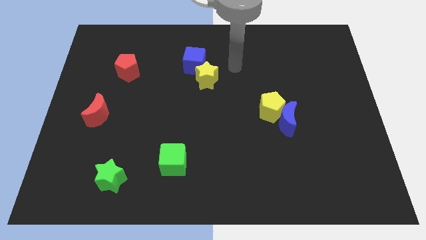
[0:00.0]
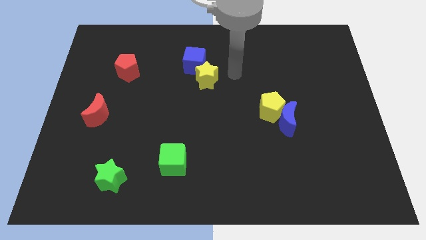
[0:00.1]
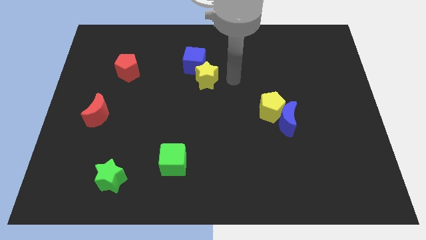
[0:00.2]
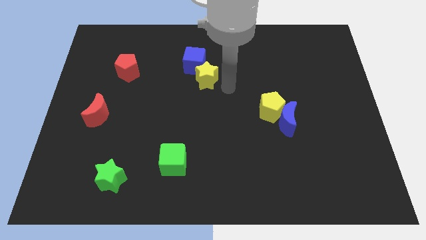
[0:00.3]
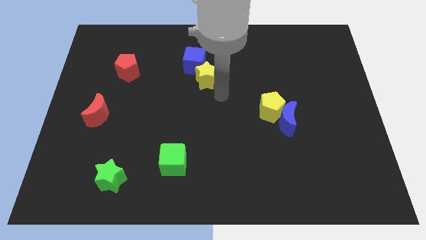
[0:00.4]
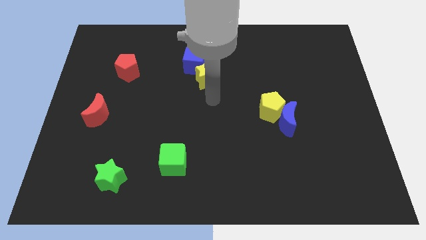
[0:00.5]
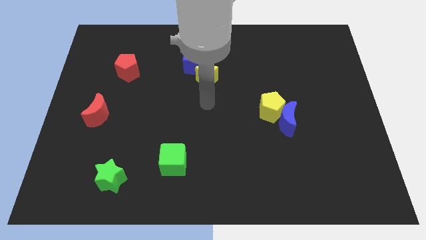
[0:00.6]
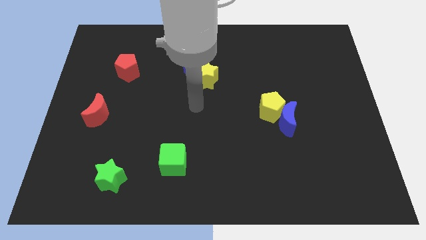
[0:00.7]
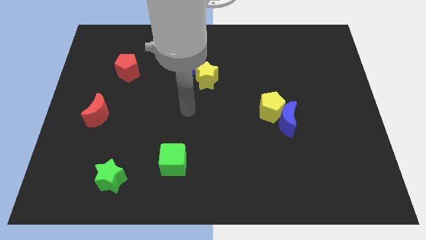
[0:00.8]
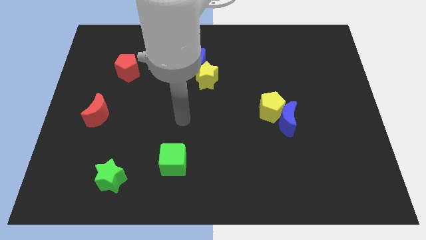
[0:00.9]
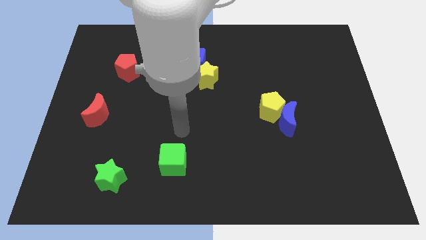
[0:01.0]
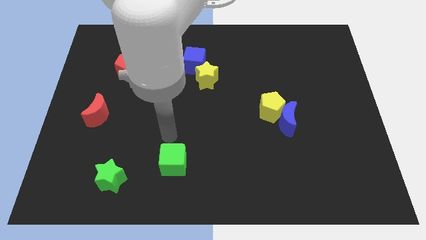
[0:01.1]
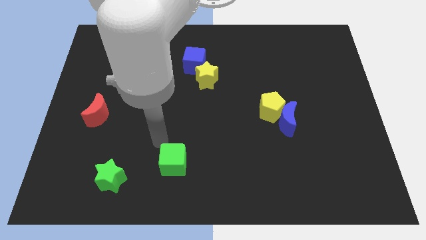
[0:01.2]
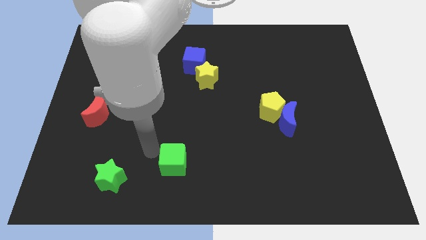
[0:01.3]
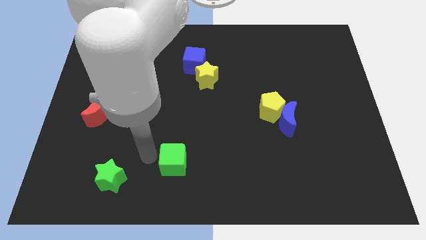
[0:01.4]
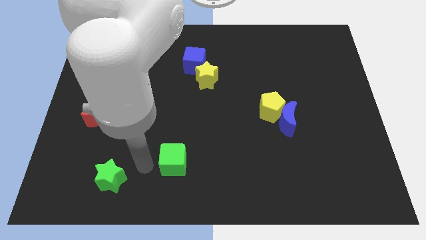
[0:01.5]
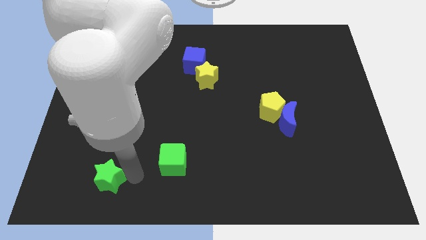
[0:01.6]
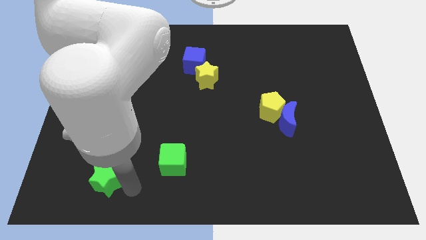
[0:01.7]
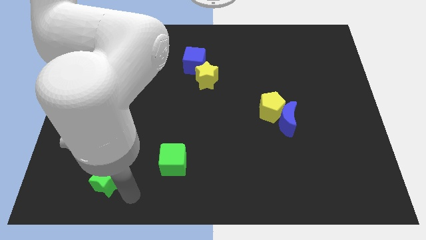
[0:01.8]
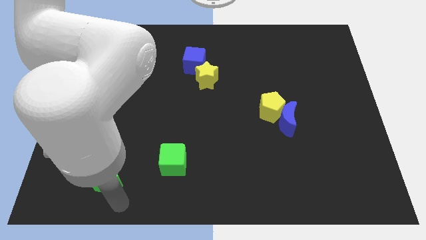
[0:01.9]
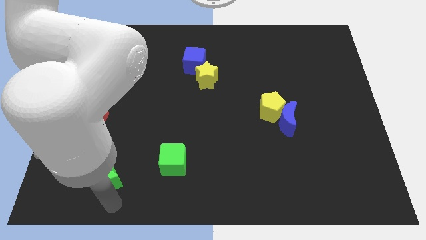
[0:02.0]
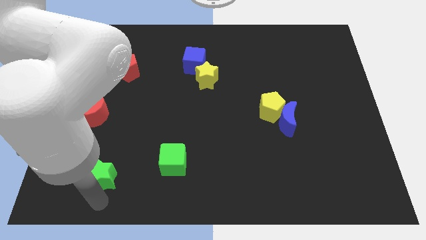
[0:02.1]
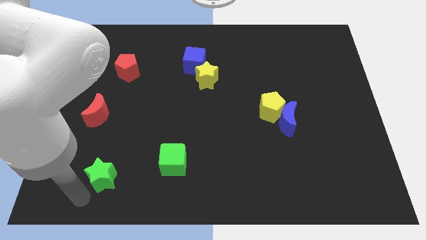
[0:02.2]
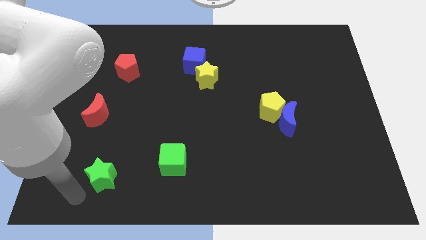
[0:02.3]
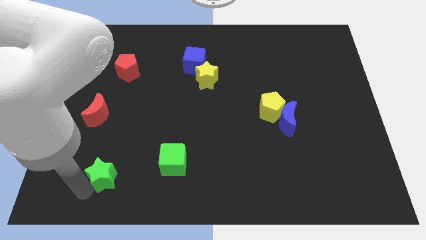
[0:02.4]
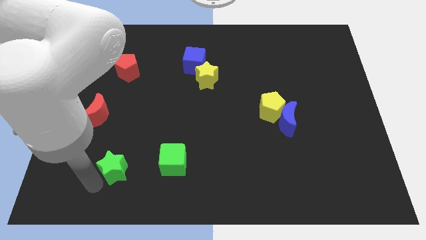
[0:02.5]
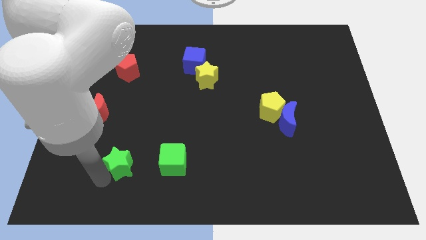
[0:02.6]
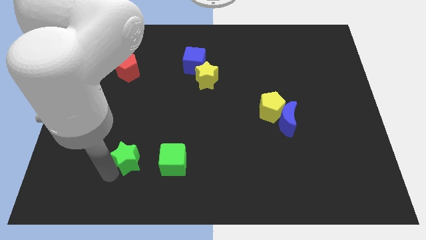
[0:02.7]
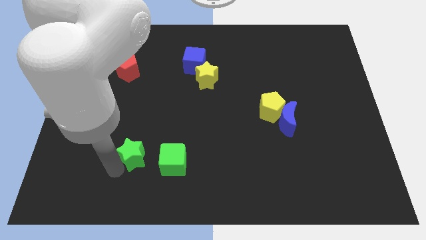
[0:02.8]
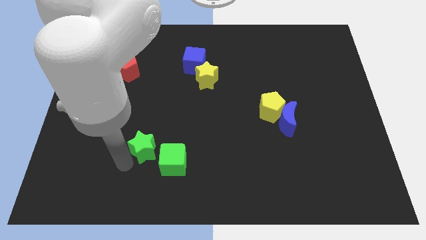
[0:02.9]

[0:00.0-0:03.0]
push the green star up and then right slightly

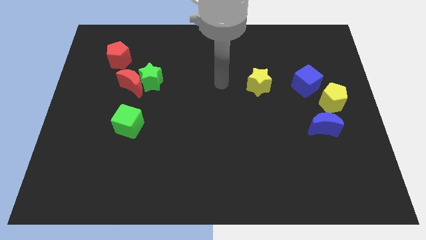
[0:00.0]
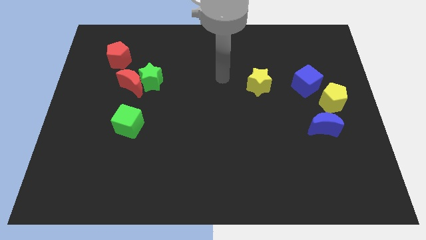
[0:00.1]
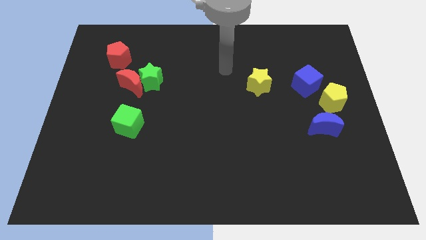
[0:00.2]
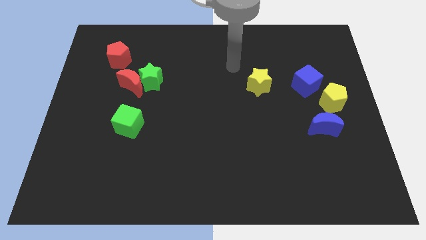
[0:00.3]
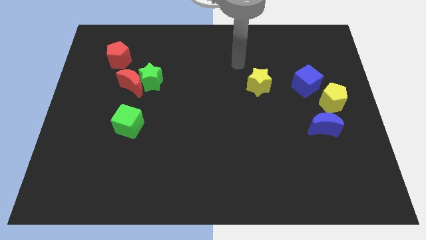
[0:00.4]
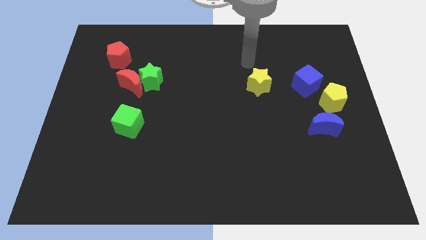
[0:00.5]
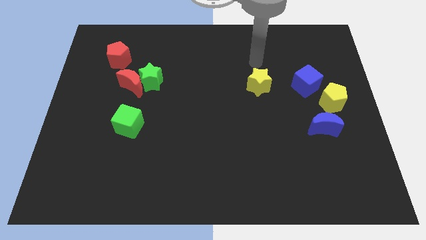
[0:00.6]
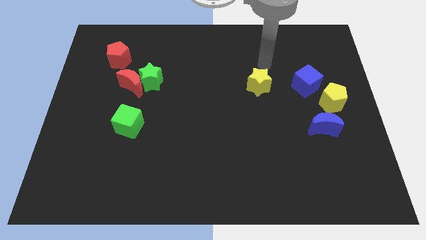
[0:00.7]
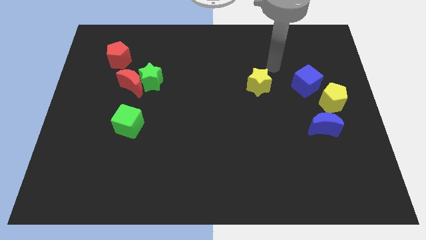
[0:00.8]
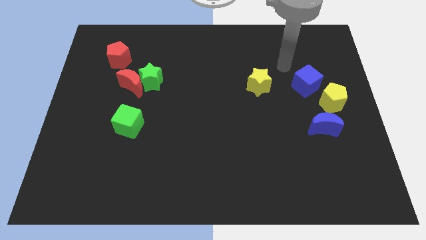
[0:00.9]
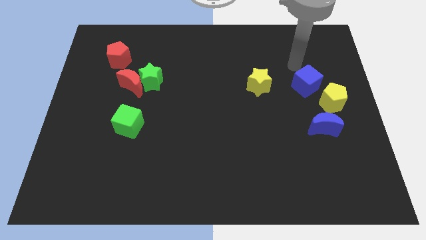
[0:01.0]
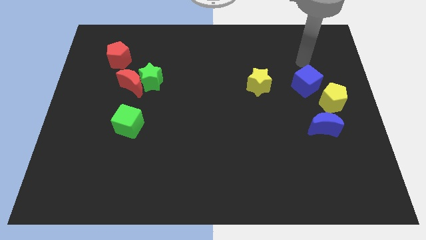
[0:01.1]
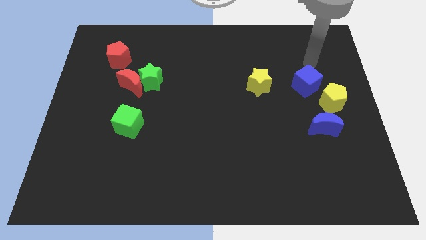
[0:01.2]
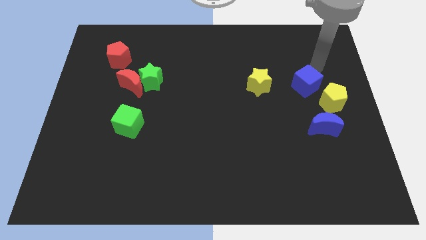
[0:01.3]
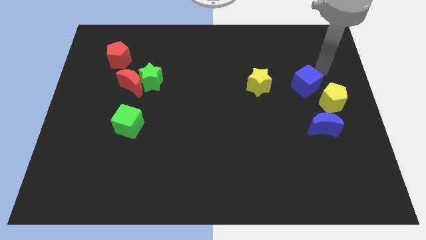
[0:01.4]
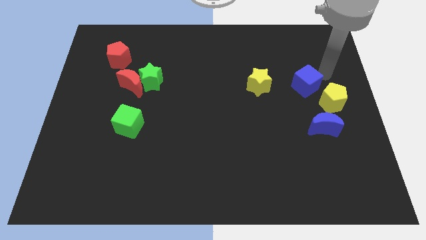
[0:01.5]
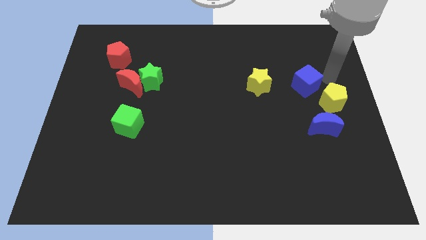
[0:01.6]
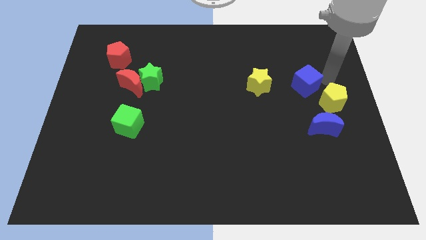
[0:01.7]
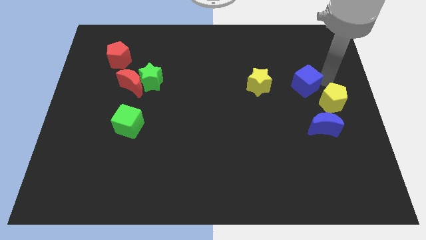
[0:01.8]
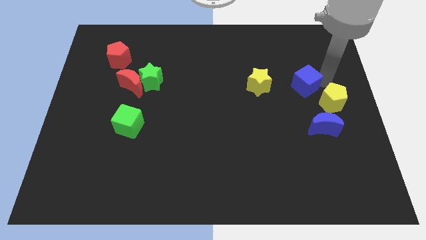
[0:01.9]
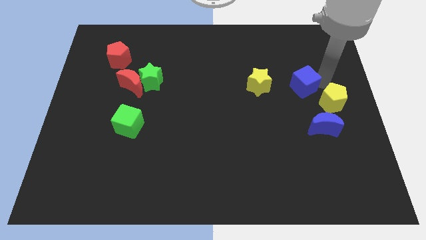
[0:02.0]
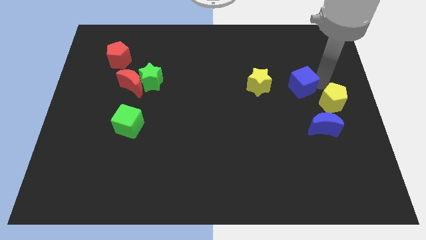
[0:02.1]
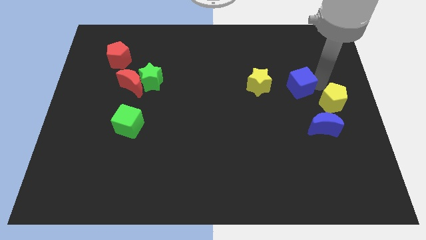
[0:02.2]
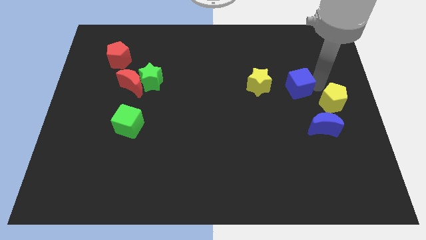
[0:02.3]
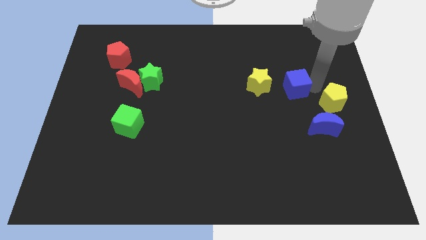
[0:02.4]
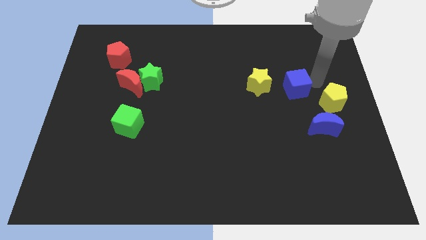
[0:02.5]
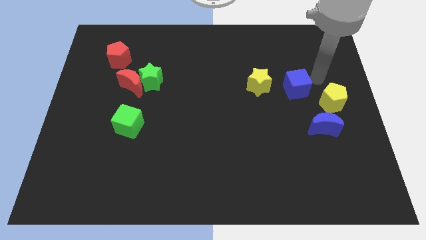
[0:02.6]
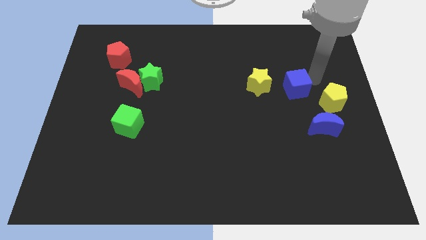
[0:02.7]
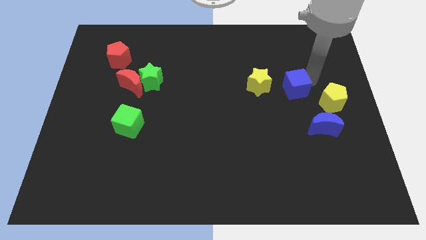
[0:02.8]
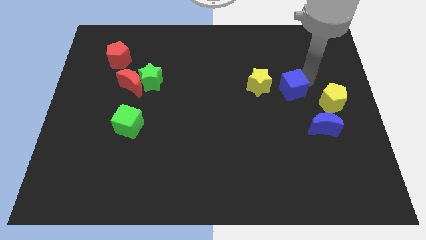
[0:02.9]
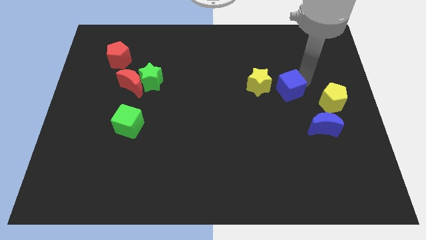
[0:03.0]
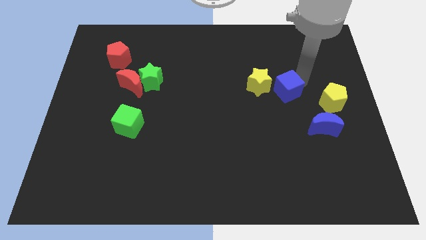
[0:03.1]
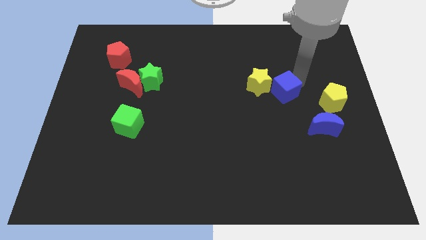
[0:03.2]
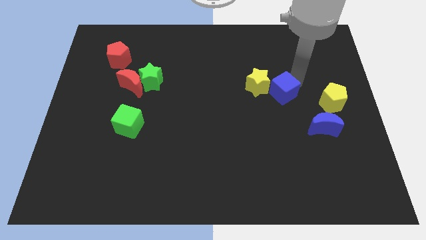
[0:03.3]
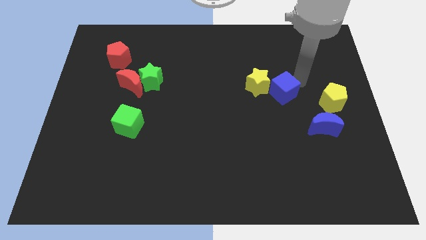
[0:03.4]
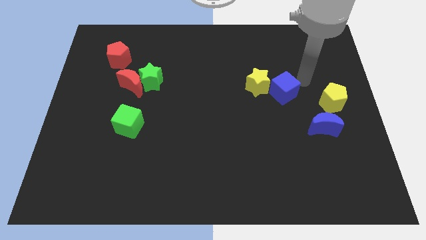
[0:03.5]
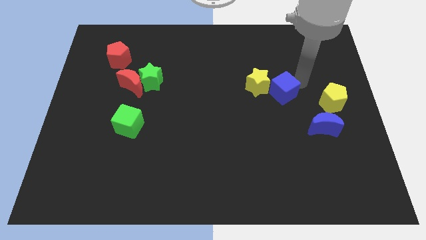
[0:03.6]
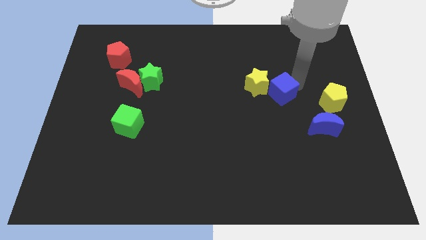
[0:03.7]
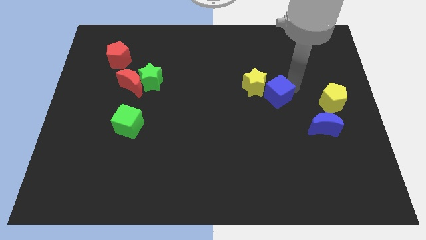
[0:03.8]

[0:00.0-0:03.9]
slide the blue cube to the left a little bit

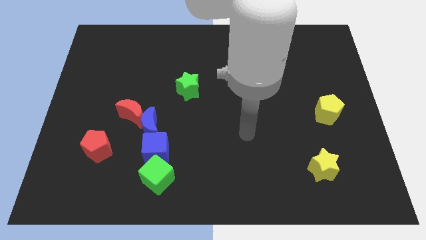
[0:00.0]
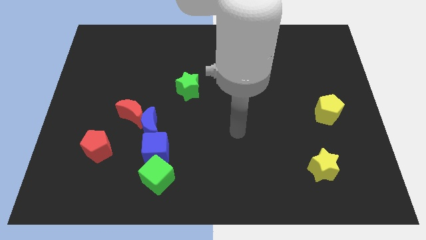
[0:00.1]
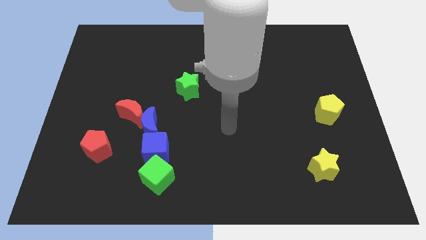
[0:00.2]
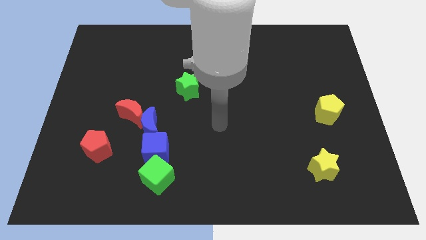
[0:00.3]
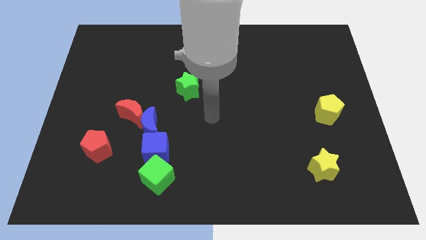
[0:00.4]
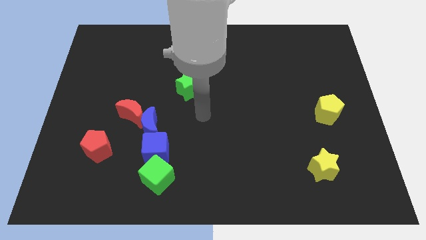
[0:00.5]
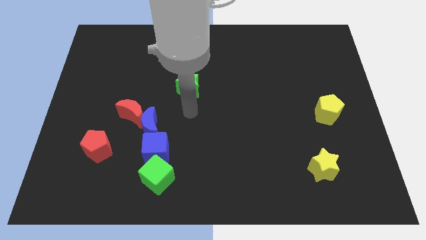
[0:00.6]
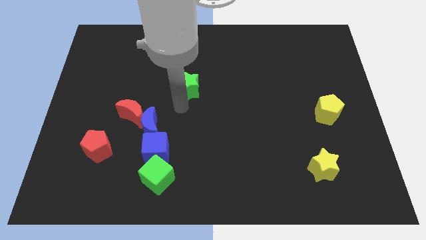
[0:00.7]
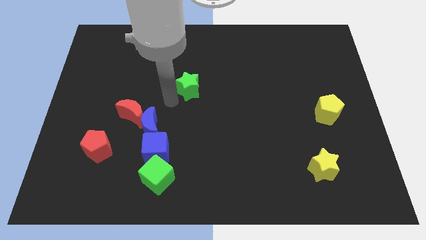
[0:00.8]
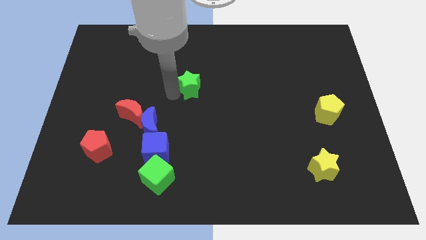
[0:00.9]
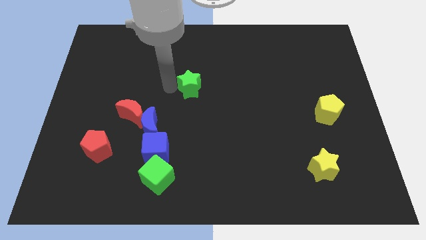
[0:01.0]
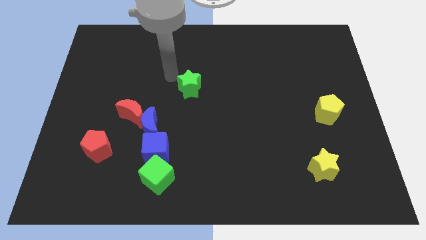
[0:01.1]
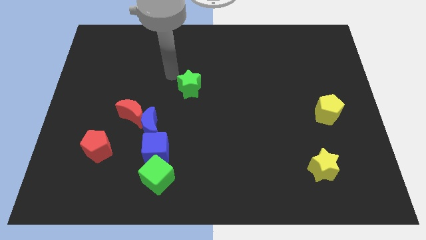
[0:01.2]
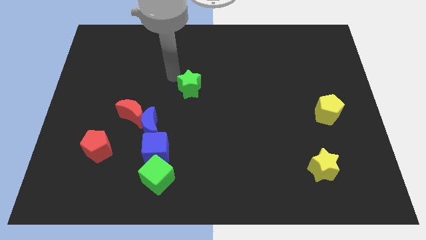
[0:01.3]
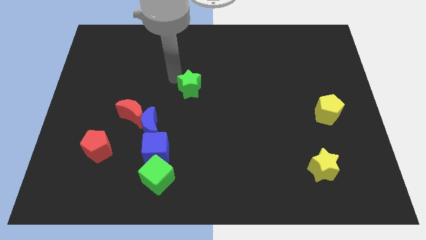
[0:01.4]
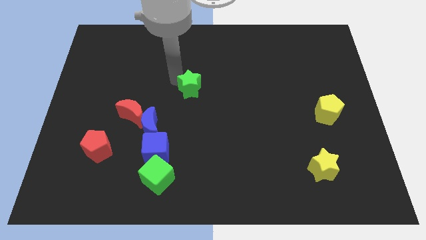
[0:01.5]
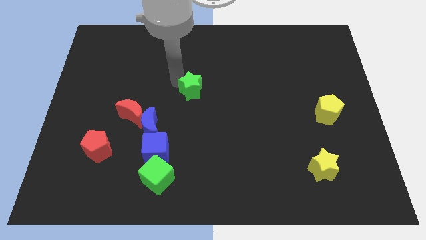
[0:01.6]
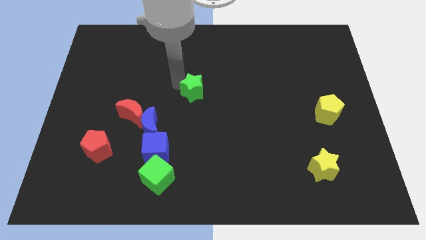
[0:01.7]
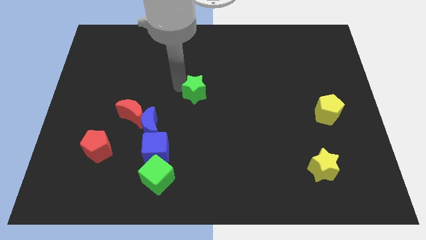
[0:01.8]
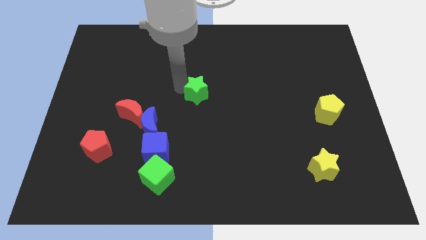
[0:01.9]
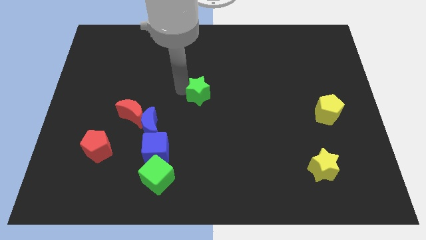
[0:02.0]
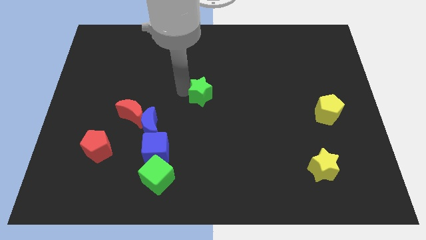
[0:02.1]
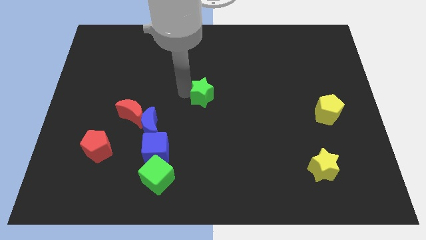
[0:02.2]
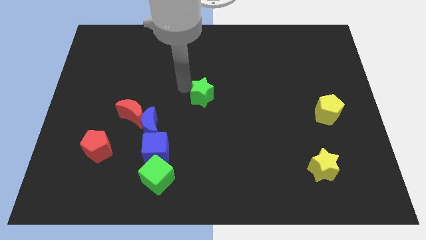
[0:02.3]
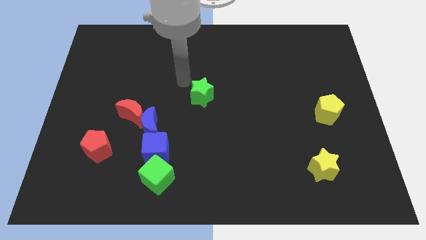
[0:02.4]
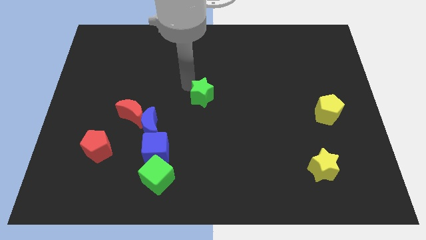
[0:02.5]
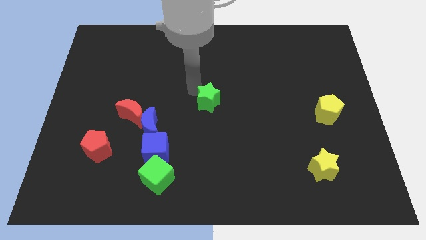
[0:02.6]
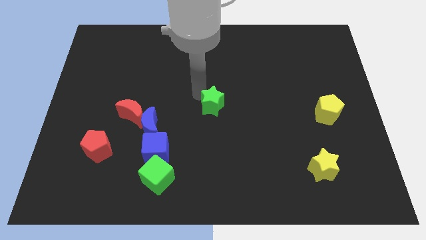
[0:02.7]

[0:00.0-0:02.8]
slightly slide the green star down and then right
